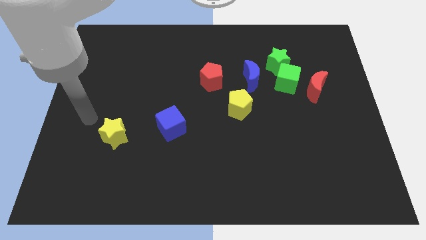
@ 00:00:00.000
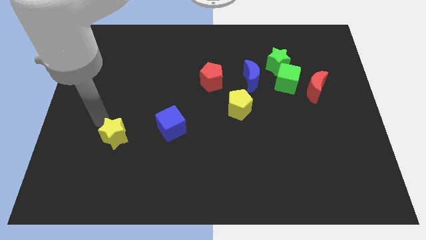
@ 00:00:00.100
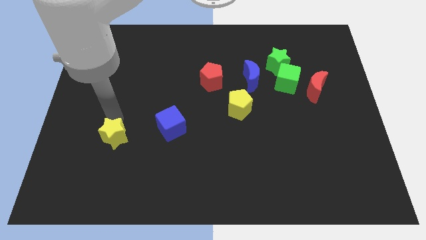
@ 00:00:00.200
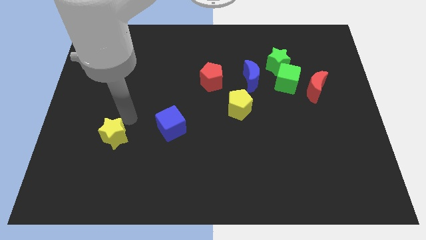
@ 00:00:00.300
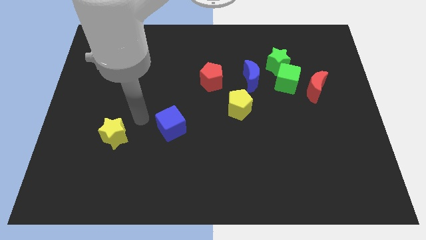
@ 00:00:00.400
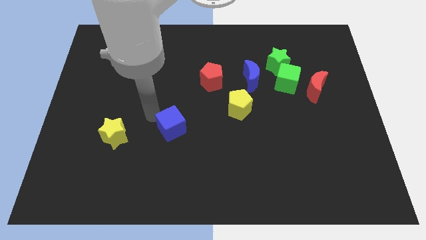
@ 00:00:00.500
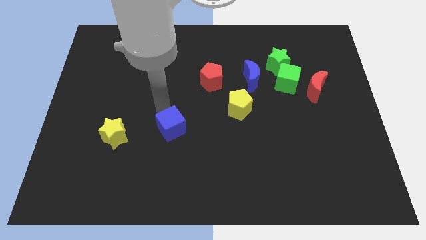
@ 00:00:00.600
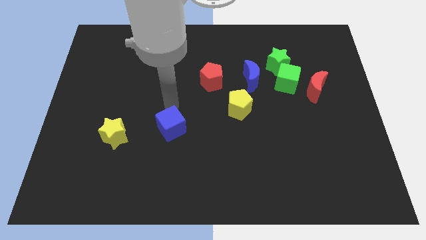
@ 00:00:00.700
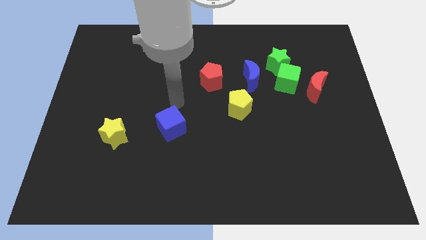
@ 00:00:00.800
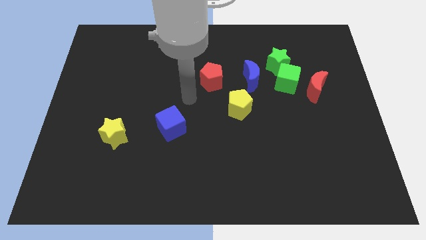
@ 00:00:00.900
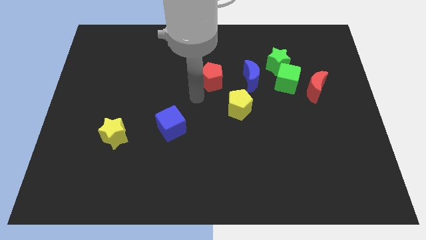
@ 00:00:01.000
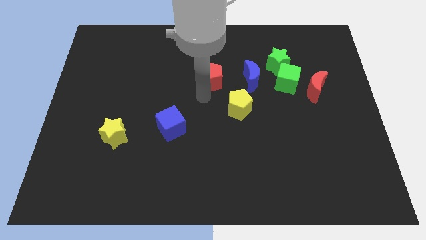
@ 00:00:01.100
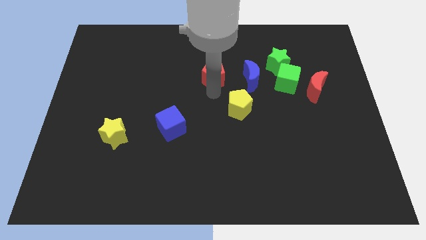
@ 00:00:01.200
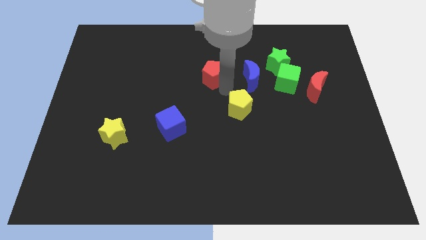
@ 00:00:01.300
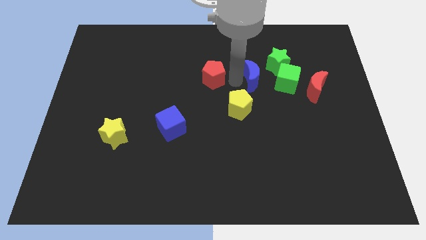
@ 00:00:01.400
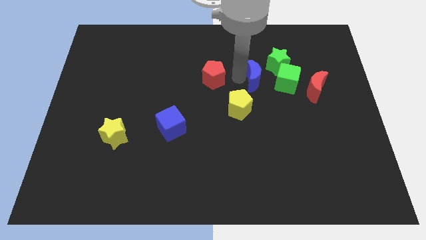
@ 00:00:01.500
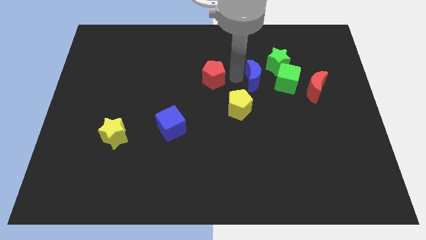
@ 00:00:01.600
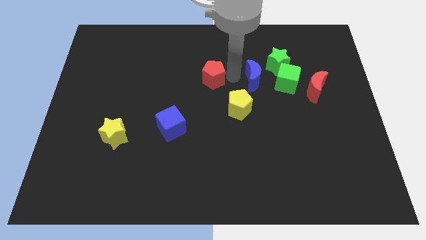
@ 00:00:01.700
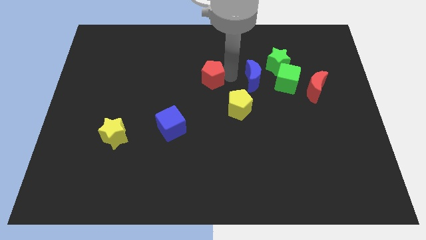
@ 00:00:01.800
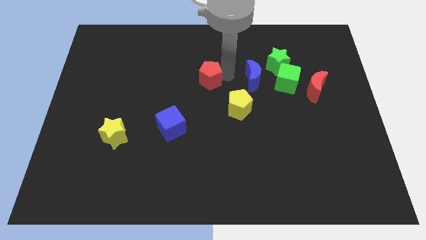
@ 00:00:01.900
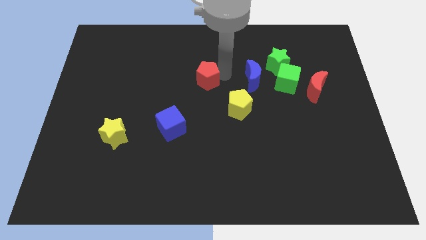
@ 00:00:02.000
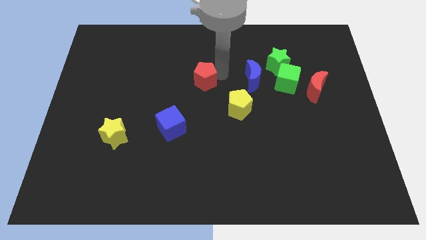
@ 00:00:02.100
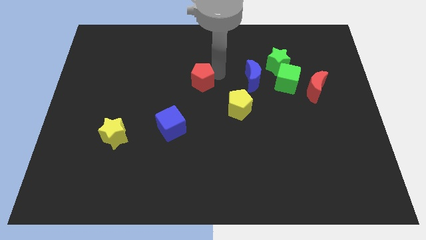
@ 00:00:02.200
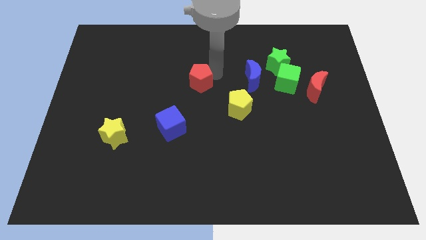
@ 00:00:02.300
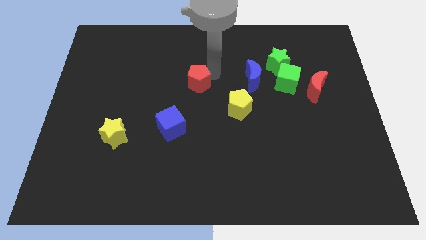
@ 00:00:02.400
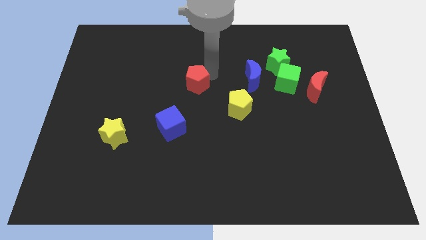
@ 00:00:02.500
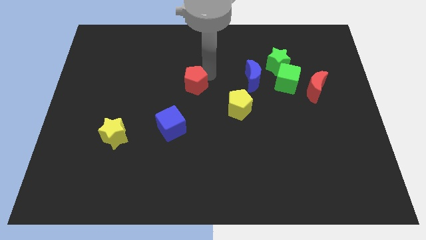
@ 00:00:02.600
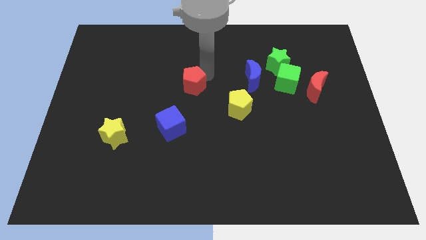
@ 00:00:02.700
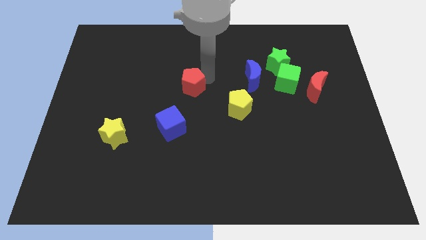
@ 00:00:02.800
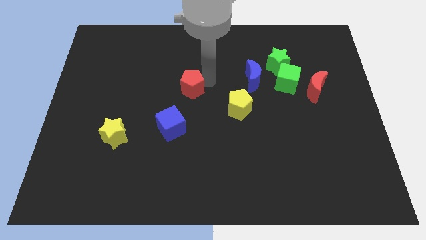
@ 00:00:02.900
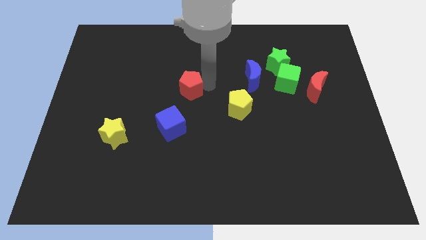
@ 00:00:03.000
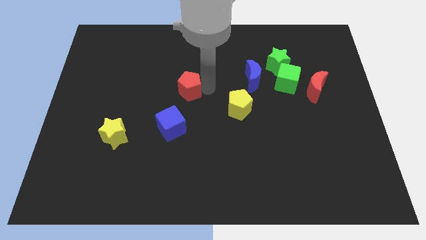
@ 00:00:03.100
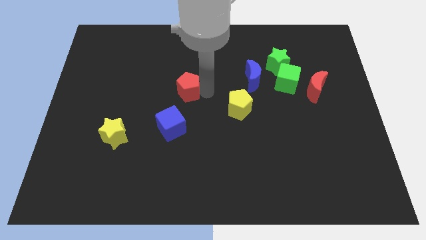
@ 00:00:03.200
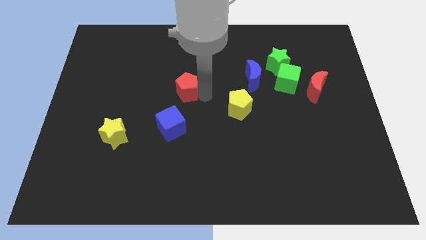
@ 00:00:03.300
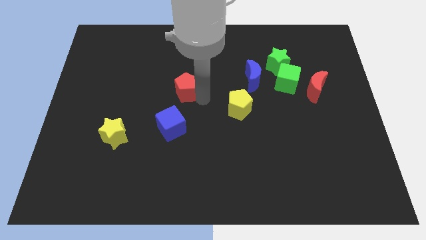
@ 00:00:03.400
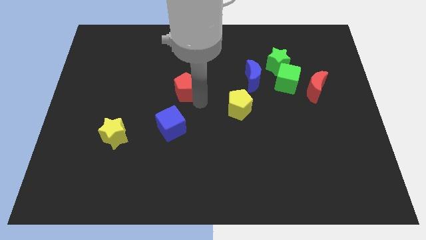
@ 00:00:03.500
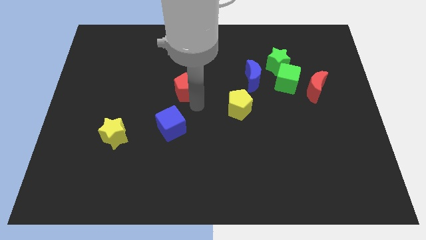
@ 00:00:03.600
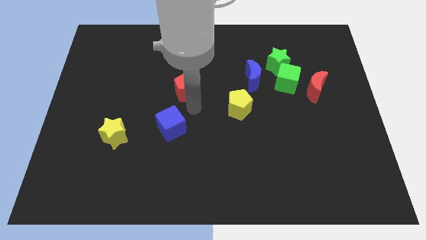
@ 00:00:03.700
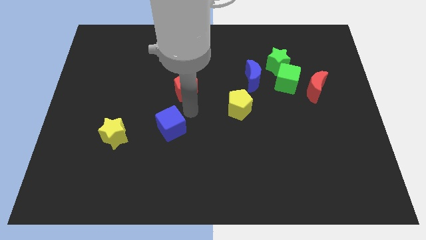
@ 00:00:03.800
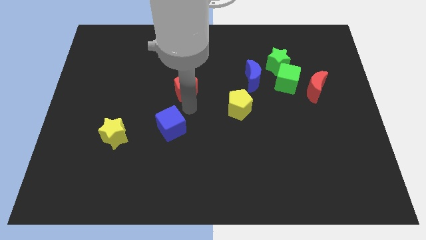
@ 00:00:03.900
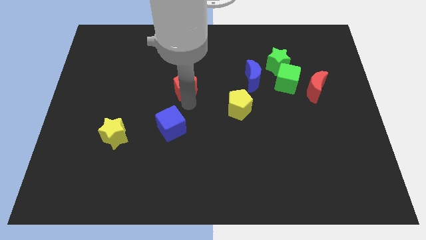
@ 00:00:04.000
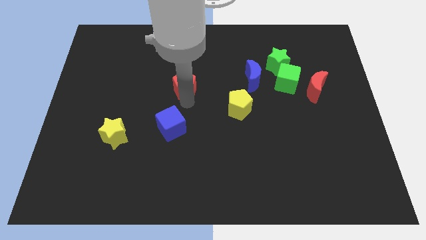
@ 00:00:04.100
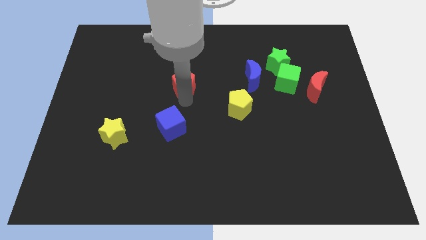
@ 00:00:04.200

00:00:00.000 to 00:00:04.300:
slightly move the red pentagon to the left

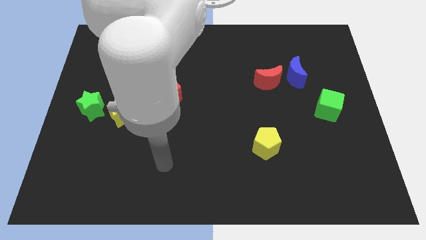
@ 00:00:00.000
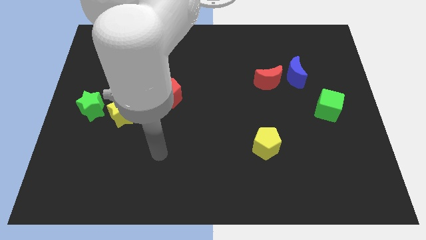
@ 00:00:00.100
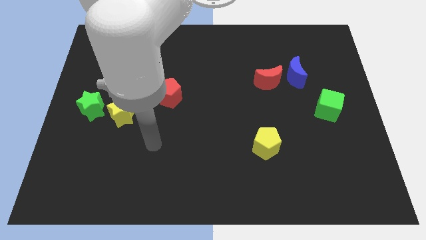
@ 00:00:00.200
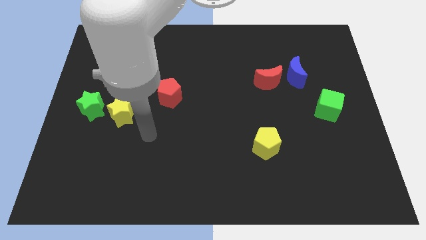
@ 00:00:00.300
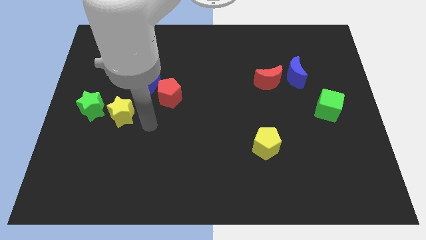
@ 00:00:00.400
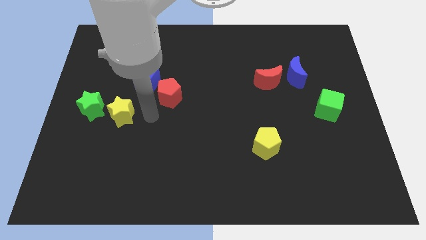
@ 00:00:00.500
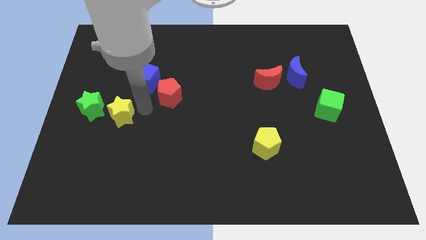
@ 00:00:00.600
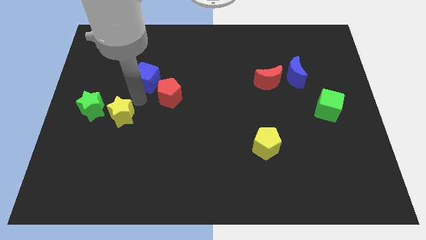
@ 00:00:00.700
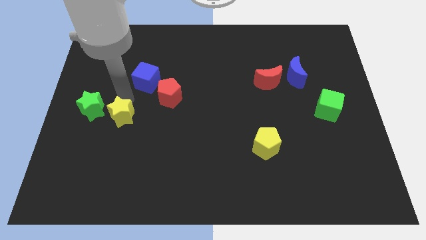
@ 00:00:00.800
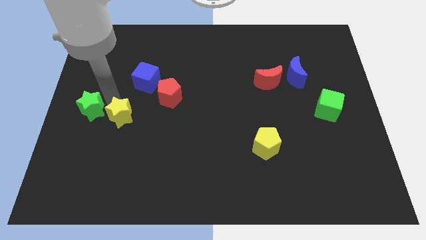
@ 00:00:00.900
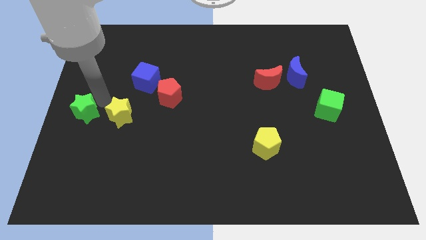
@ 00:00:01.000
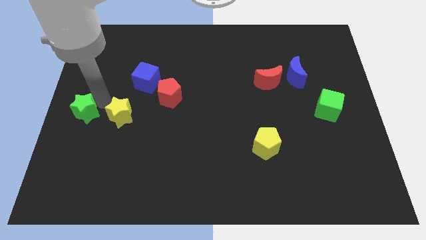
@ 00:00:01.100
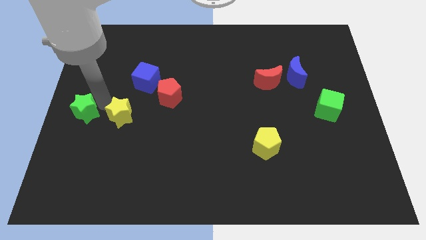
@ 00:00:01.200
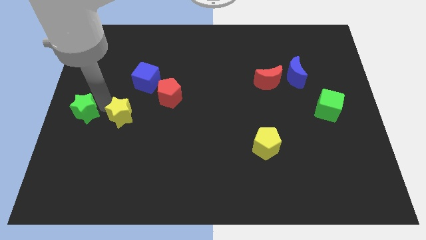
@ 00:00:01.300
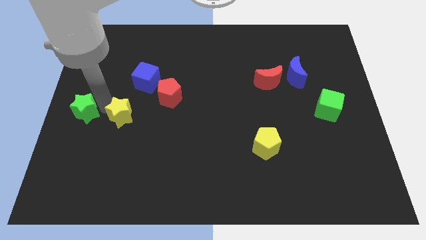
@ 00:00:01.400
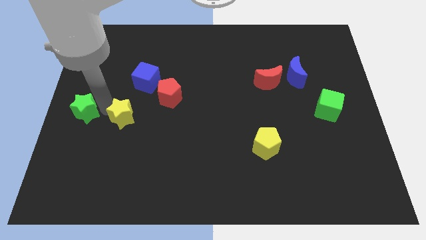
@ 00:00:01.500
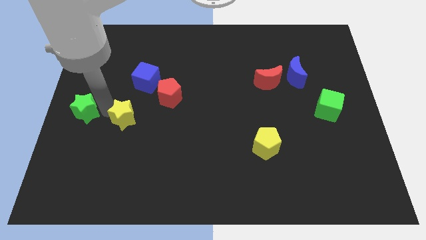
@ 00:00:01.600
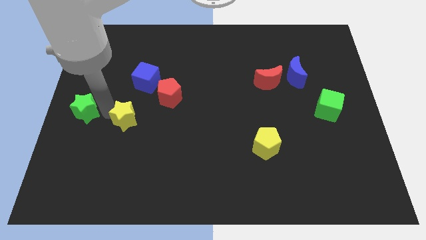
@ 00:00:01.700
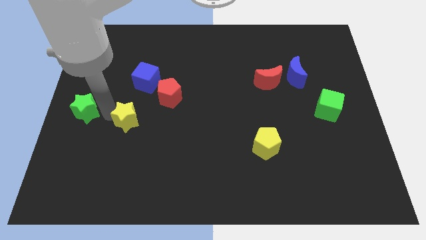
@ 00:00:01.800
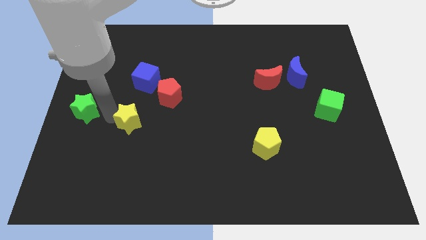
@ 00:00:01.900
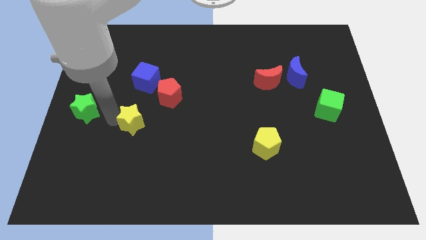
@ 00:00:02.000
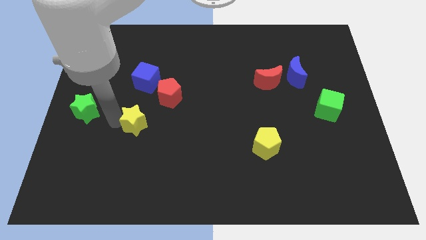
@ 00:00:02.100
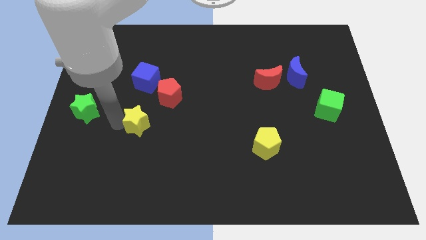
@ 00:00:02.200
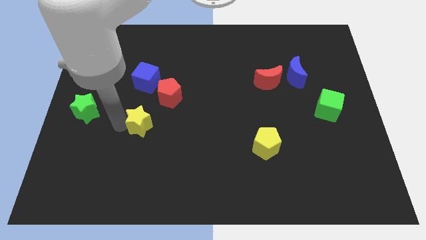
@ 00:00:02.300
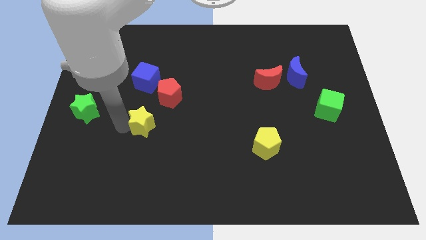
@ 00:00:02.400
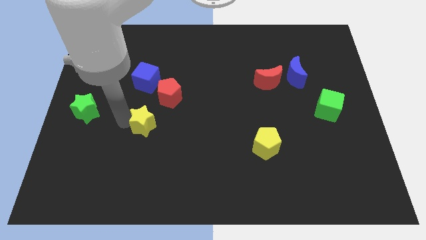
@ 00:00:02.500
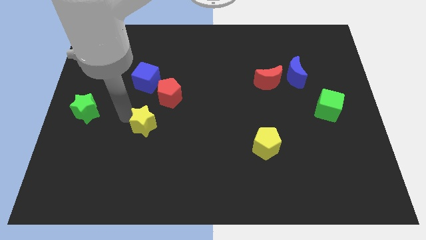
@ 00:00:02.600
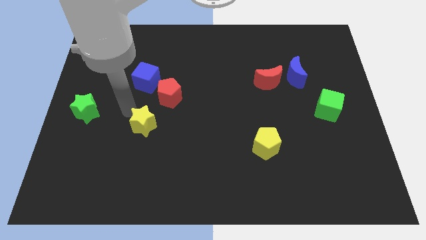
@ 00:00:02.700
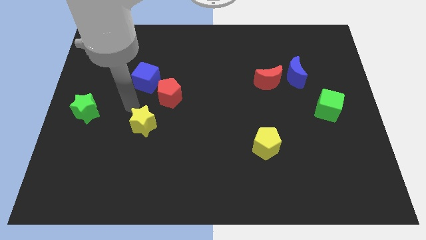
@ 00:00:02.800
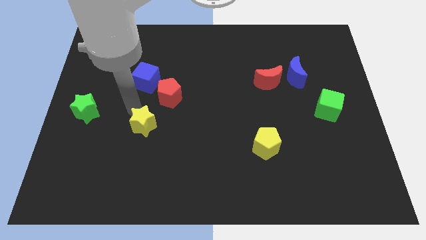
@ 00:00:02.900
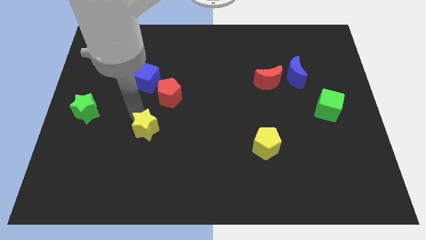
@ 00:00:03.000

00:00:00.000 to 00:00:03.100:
slightly slide the yellow star diagonally downwards and to the right

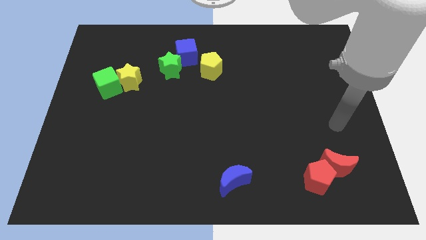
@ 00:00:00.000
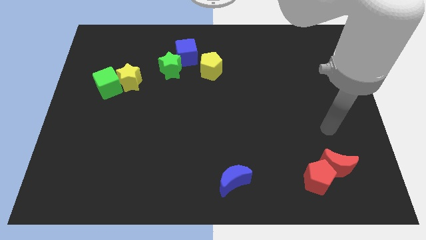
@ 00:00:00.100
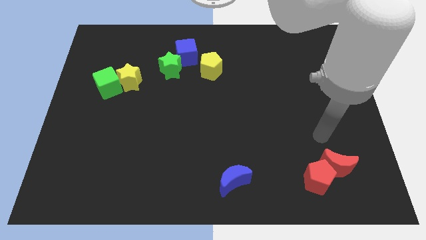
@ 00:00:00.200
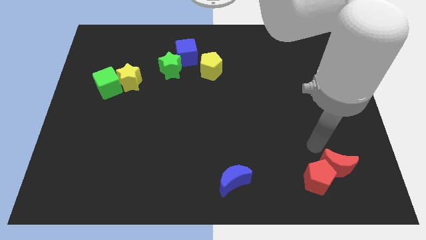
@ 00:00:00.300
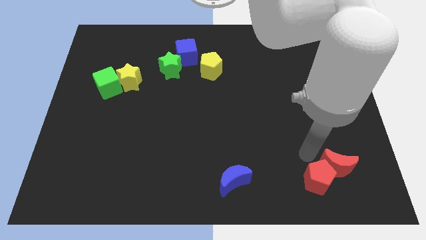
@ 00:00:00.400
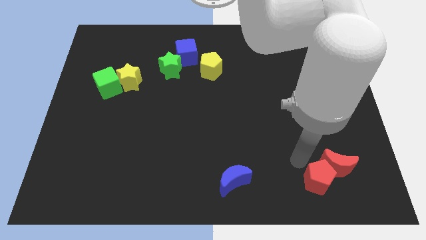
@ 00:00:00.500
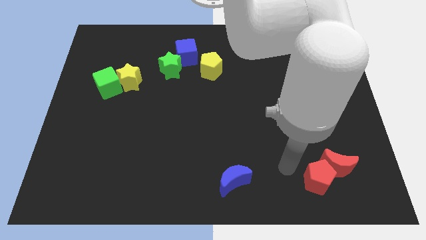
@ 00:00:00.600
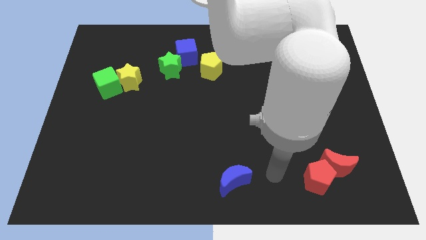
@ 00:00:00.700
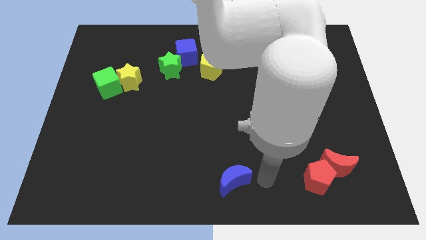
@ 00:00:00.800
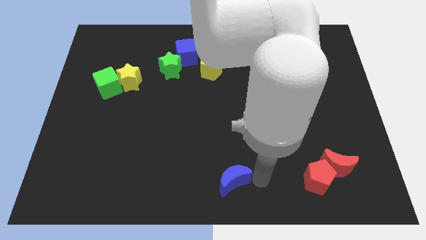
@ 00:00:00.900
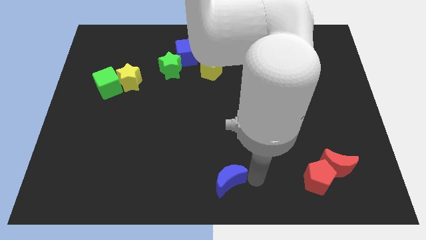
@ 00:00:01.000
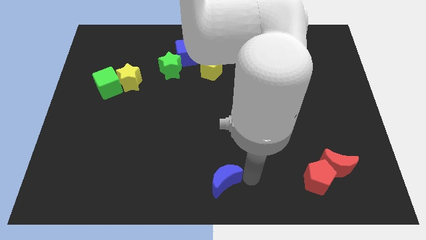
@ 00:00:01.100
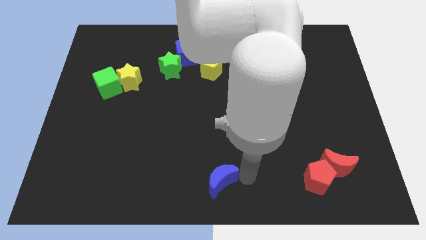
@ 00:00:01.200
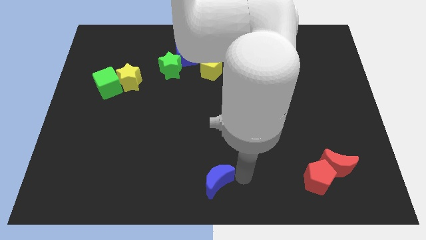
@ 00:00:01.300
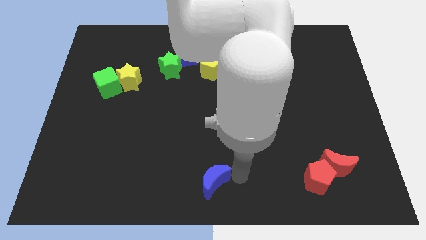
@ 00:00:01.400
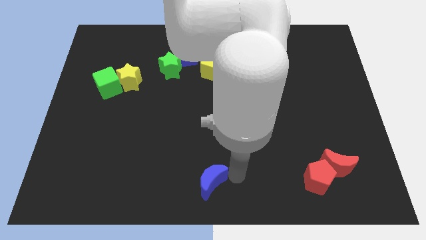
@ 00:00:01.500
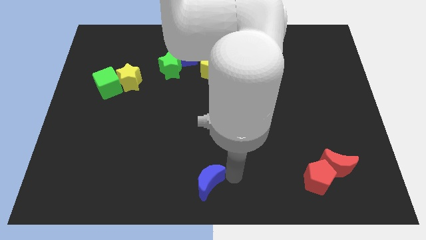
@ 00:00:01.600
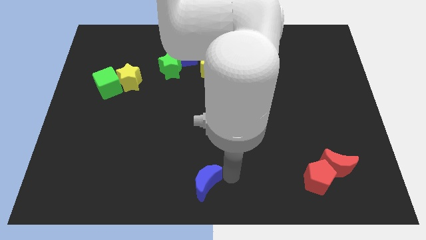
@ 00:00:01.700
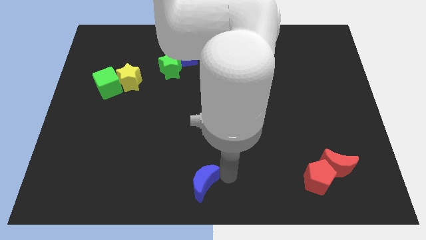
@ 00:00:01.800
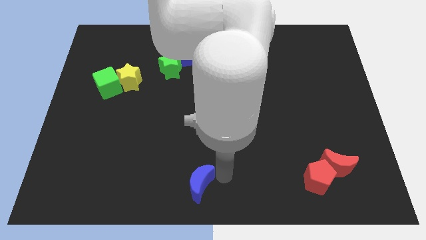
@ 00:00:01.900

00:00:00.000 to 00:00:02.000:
slide the blue moon left somewhat
